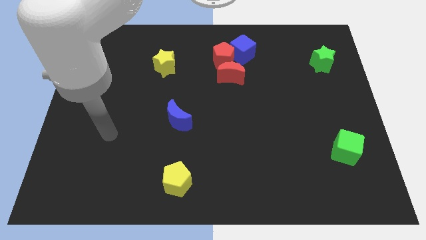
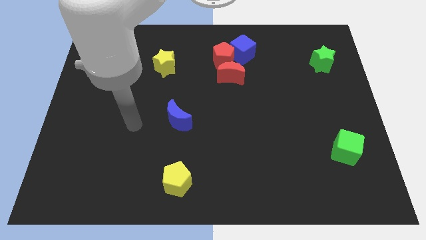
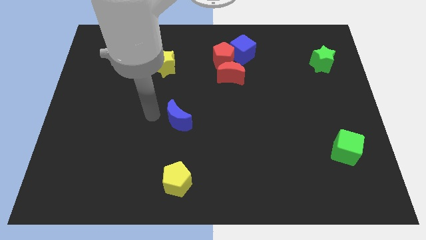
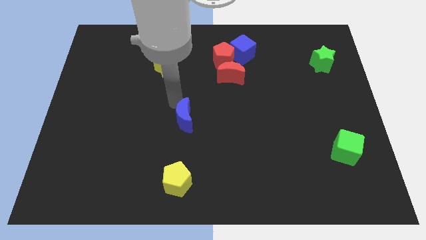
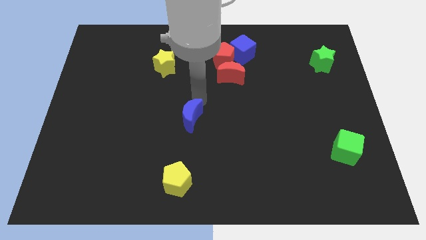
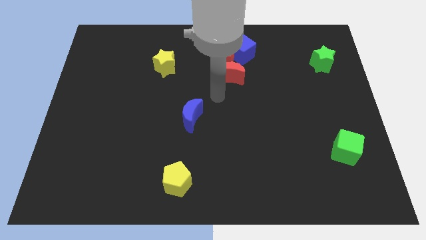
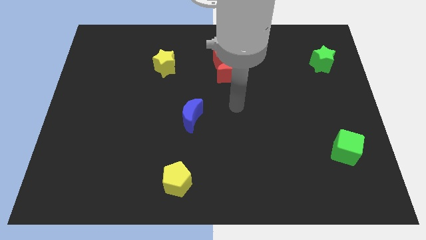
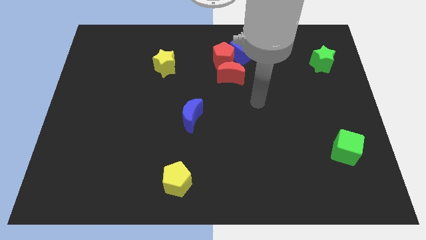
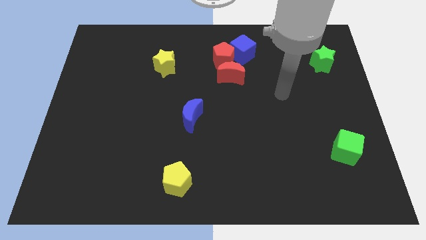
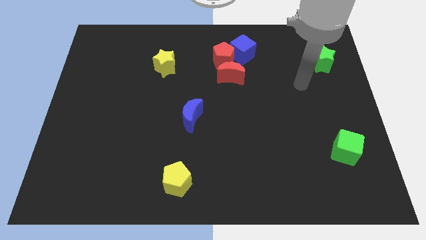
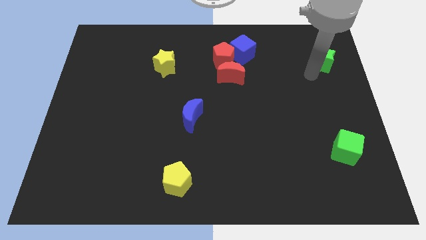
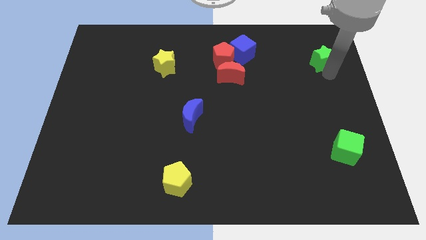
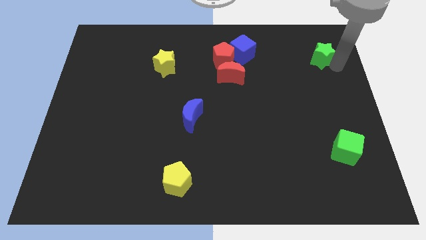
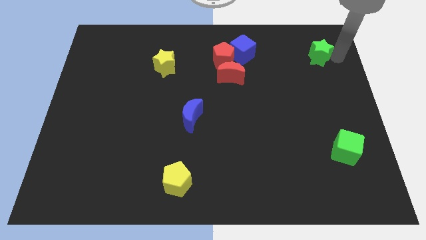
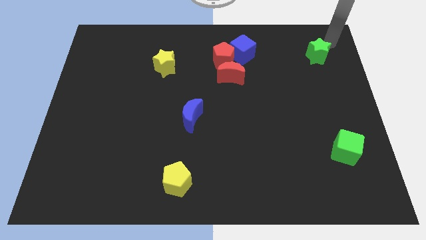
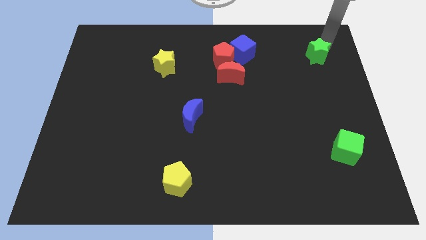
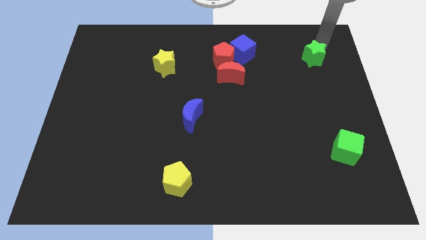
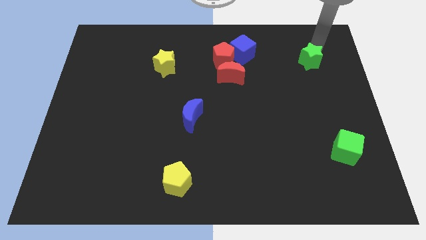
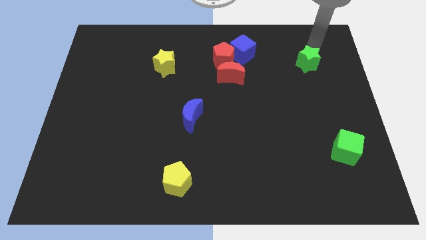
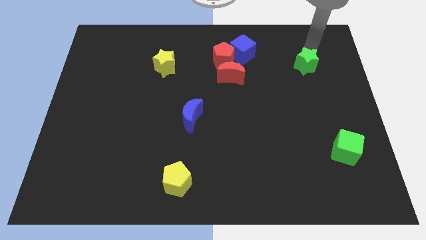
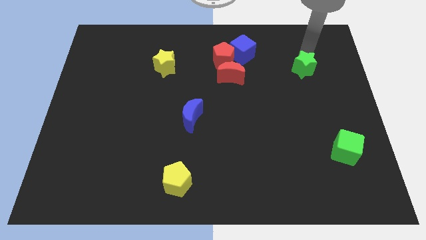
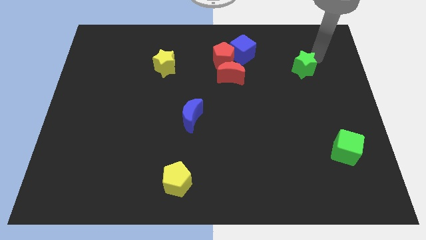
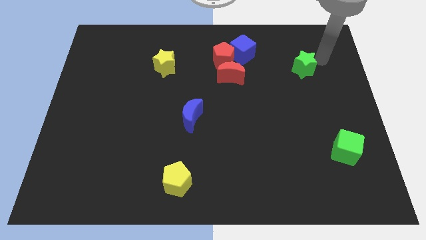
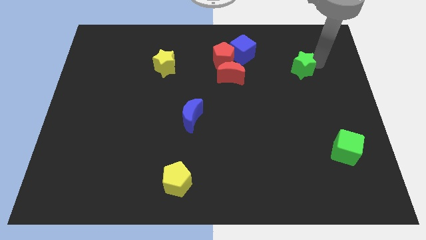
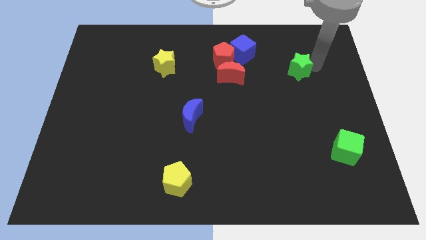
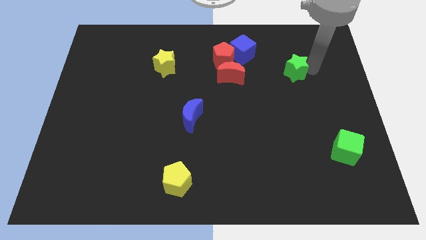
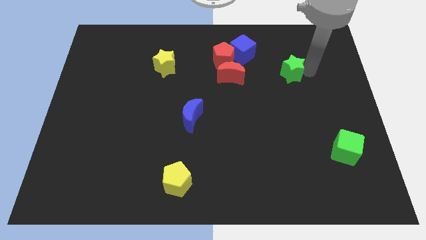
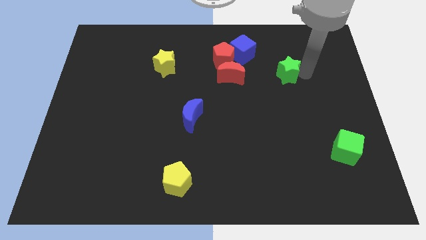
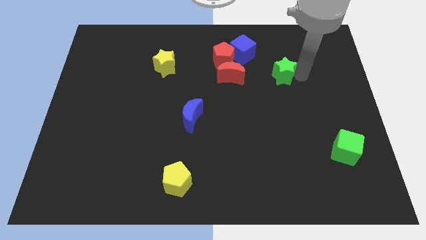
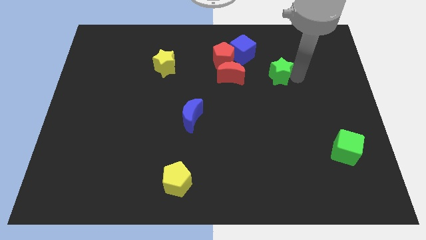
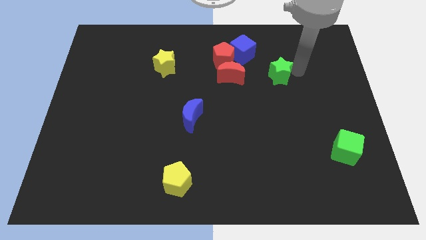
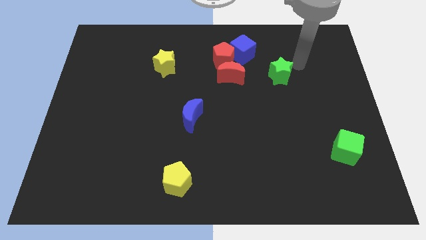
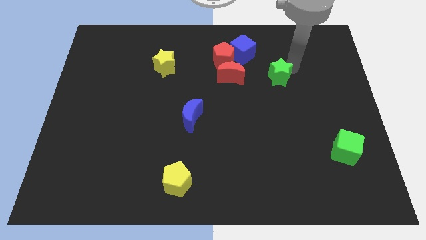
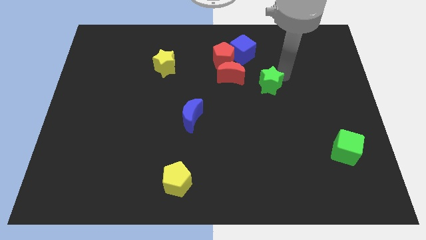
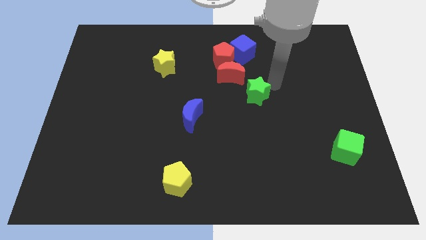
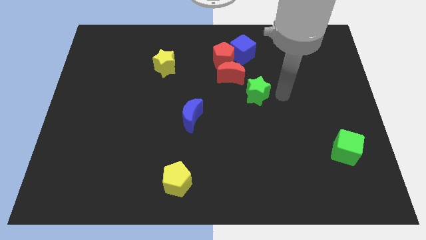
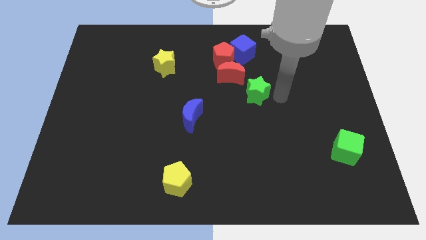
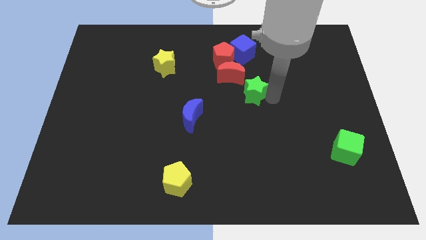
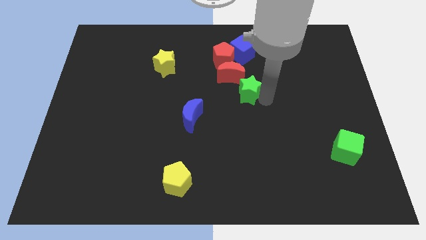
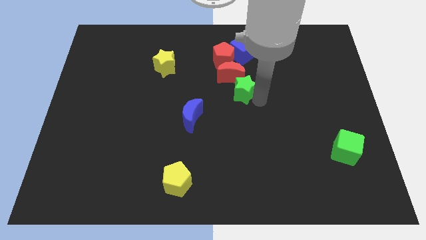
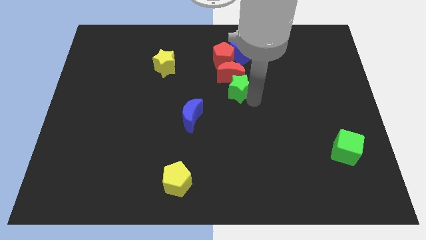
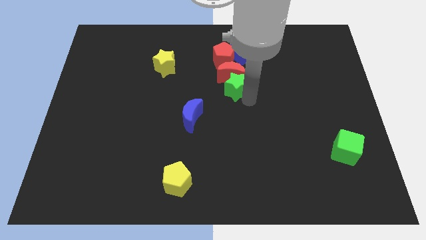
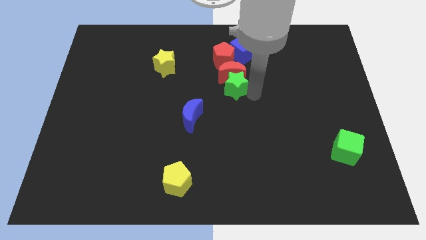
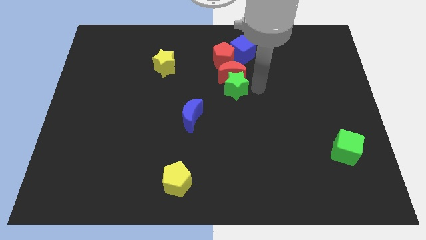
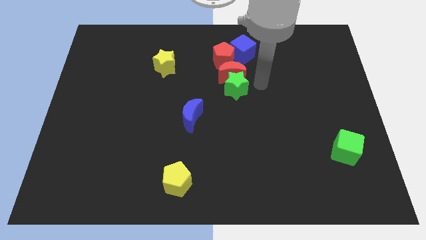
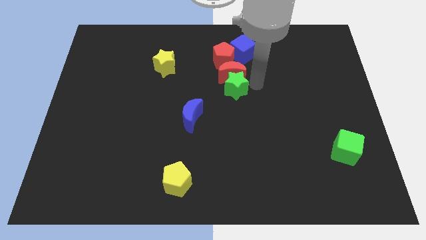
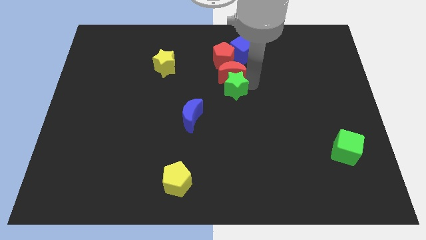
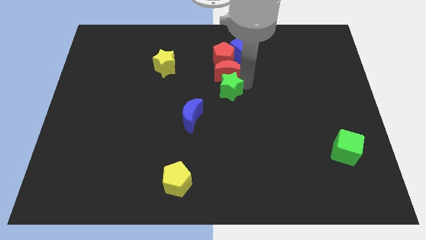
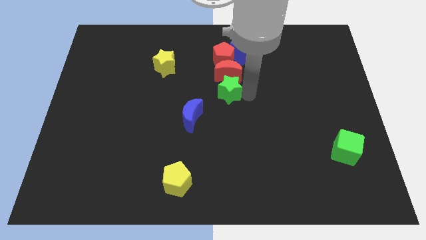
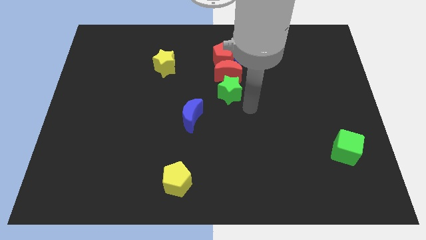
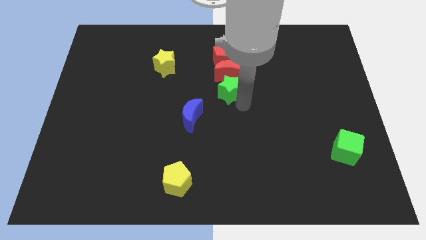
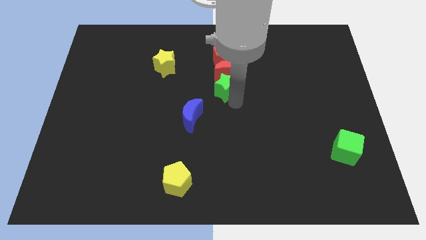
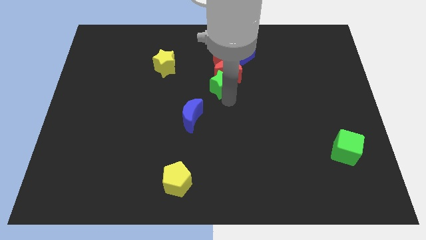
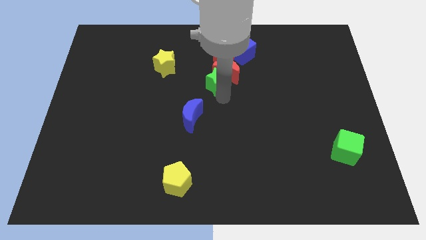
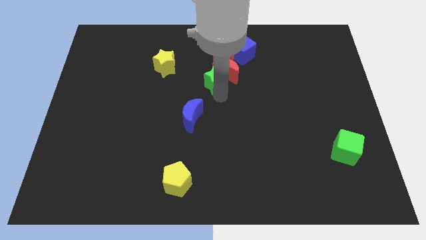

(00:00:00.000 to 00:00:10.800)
move the green star to the bottom left of the red pentagon
